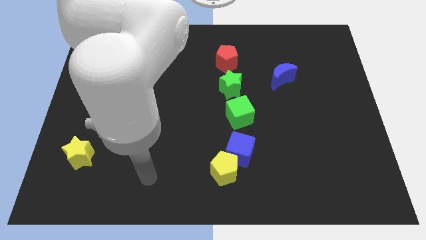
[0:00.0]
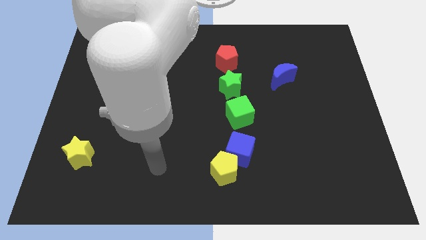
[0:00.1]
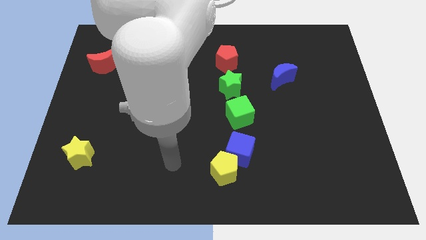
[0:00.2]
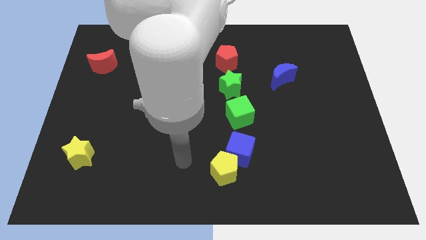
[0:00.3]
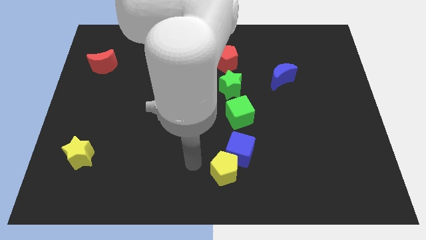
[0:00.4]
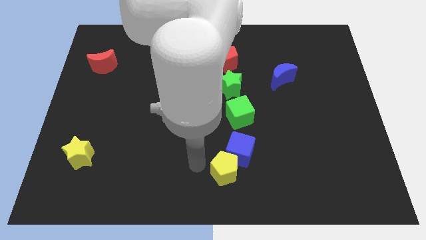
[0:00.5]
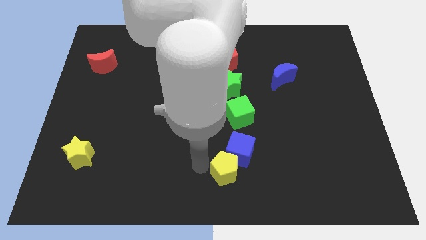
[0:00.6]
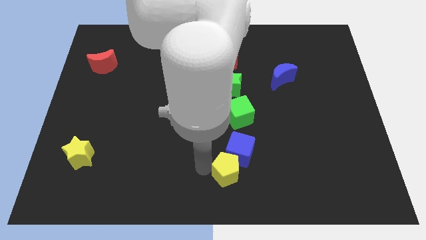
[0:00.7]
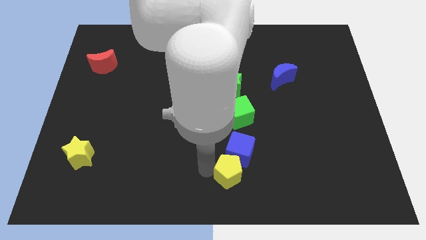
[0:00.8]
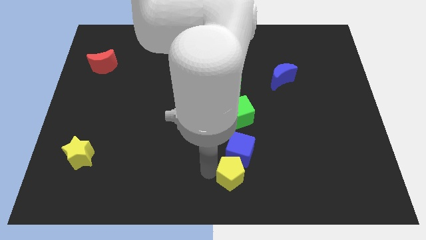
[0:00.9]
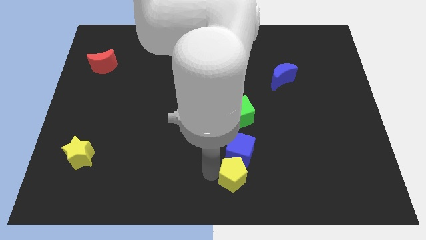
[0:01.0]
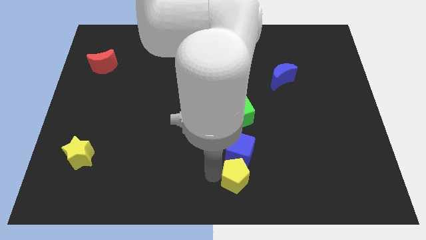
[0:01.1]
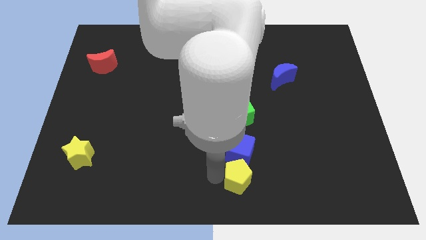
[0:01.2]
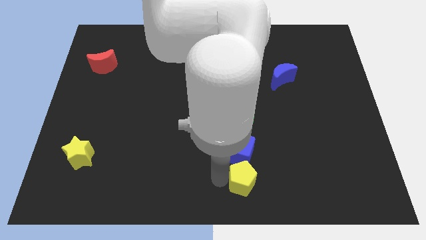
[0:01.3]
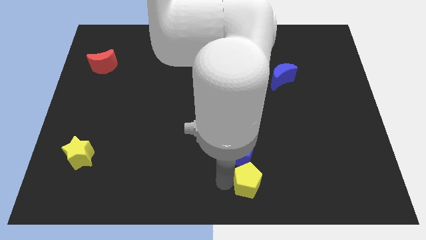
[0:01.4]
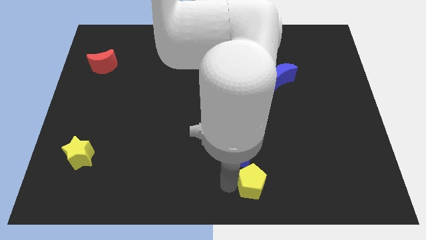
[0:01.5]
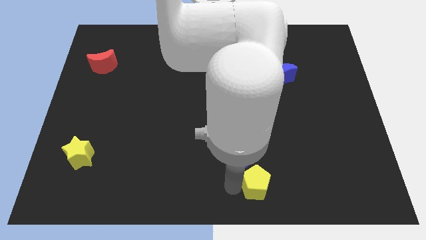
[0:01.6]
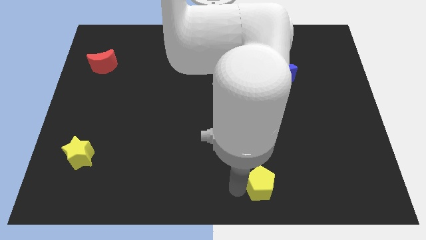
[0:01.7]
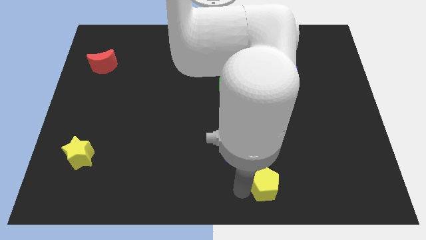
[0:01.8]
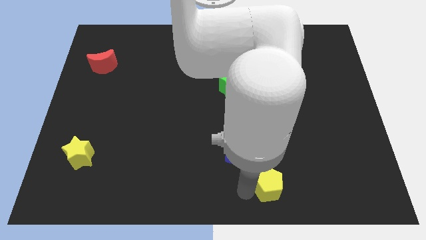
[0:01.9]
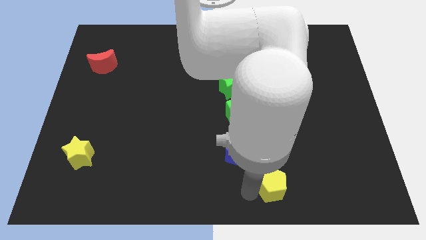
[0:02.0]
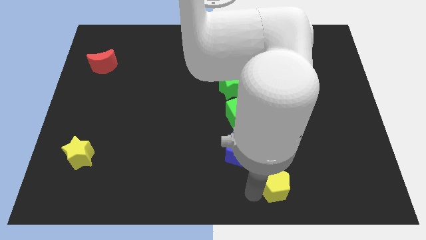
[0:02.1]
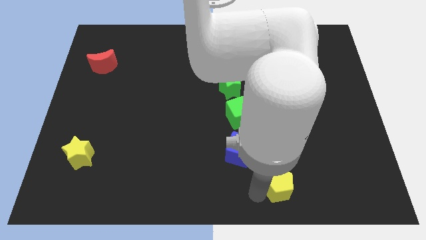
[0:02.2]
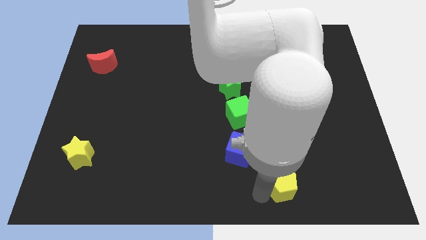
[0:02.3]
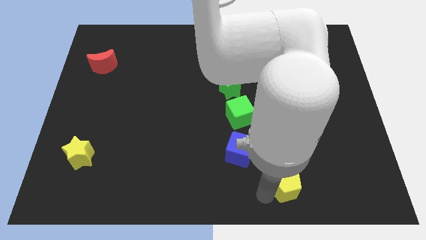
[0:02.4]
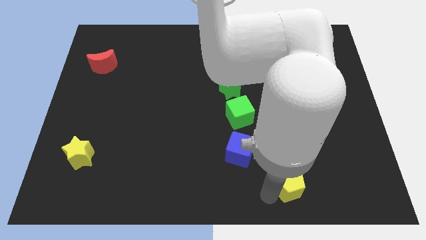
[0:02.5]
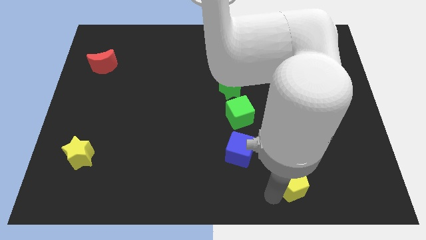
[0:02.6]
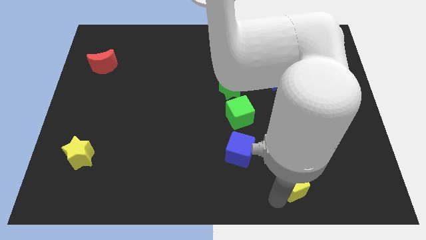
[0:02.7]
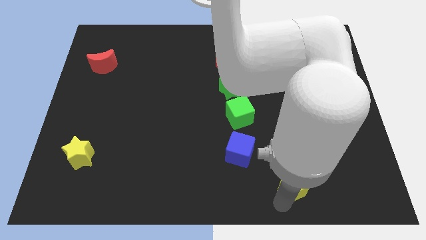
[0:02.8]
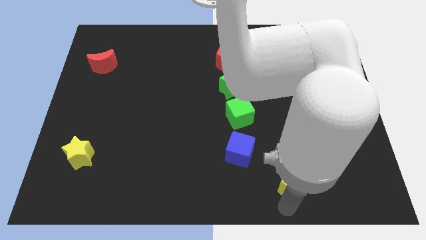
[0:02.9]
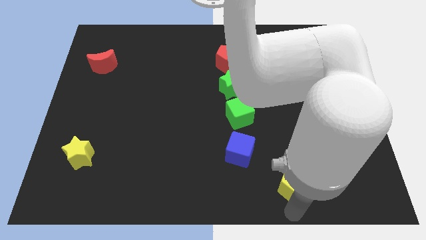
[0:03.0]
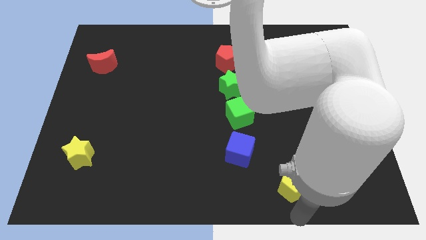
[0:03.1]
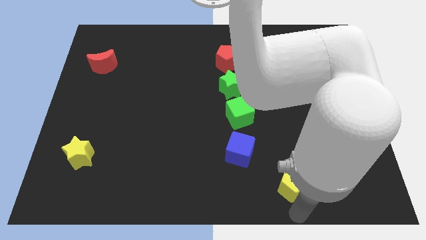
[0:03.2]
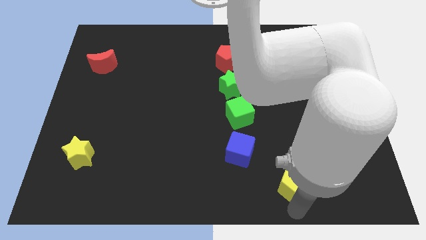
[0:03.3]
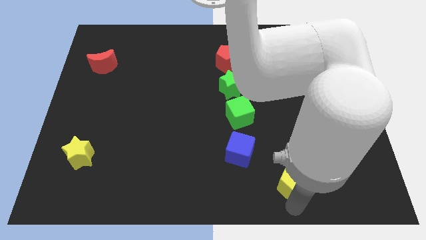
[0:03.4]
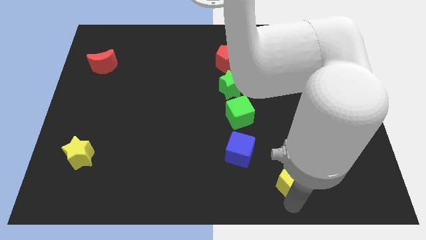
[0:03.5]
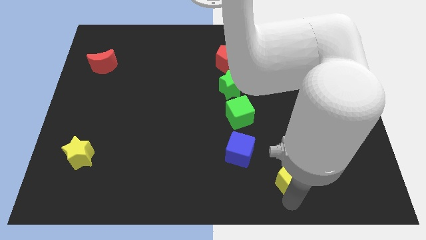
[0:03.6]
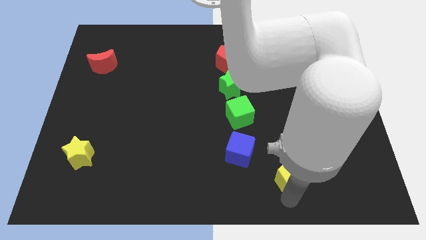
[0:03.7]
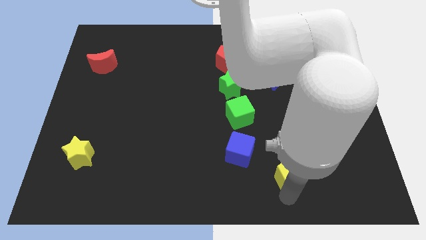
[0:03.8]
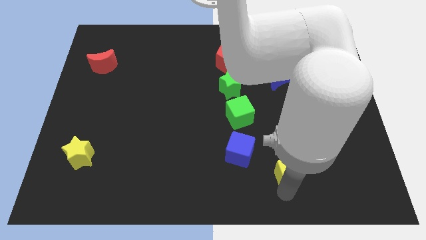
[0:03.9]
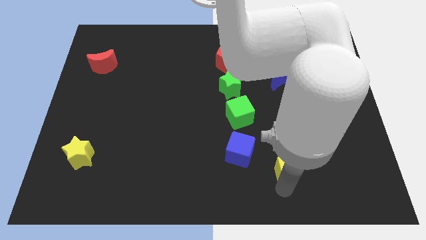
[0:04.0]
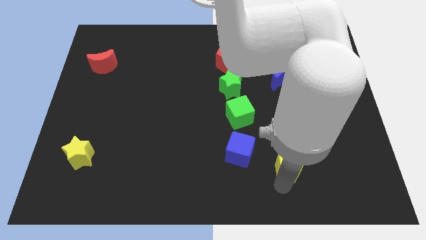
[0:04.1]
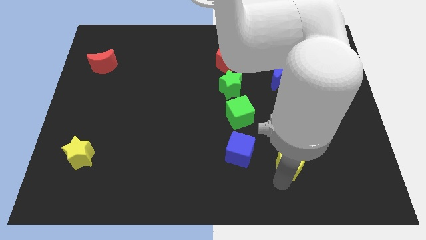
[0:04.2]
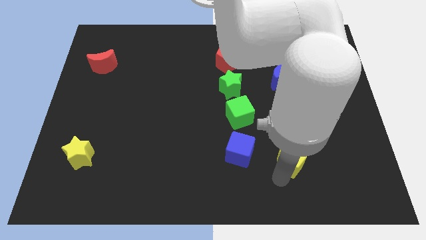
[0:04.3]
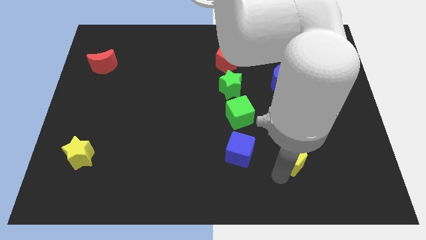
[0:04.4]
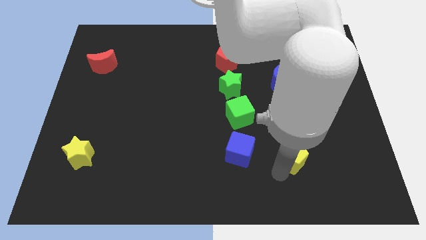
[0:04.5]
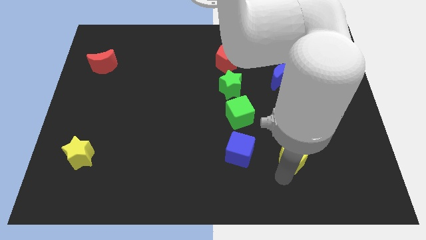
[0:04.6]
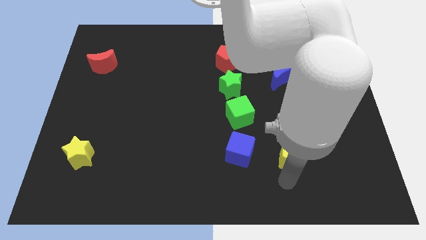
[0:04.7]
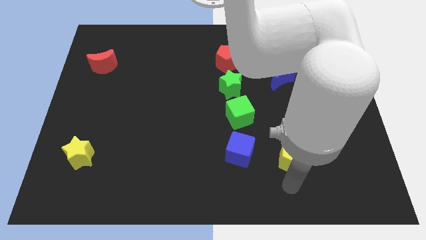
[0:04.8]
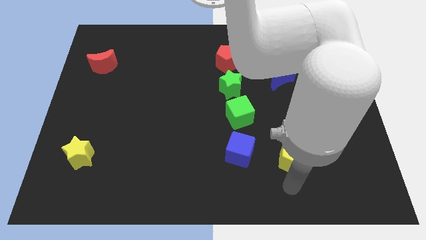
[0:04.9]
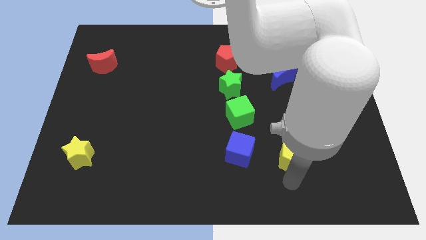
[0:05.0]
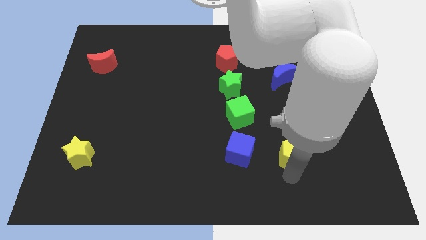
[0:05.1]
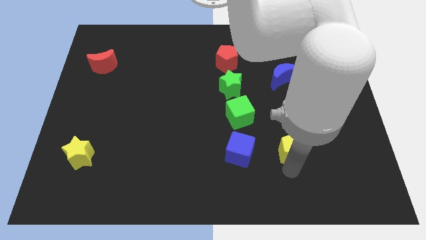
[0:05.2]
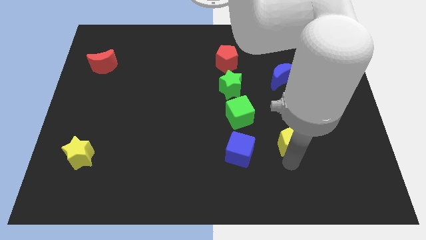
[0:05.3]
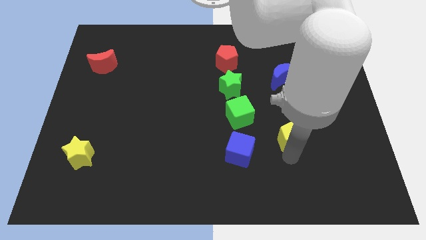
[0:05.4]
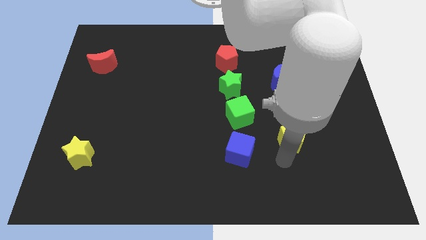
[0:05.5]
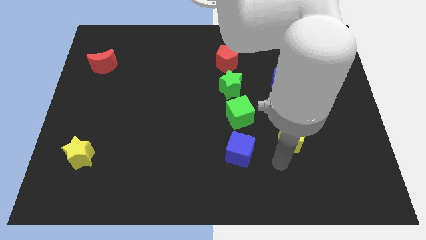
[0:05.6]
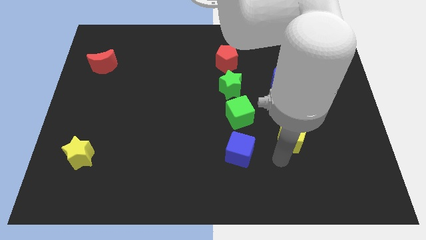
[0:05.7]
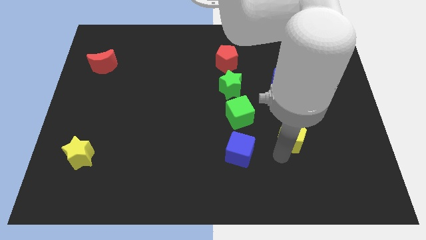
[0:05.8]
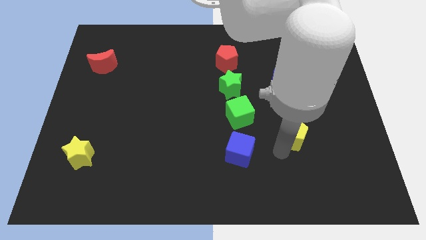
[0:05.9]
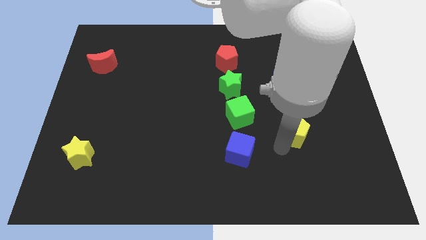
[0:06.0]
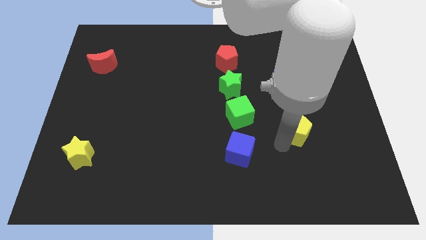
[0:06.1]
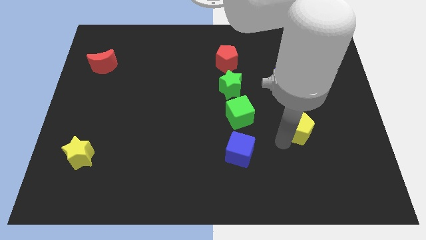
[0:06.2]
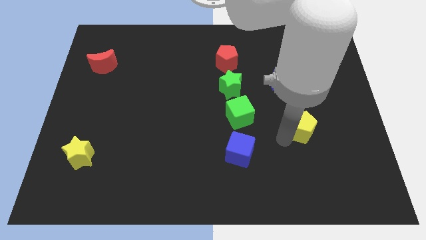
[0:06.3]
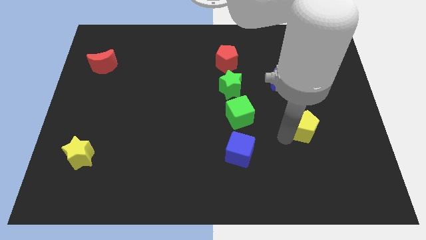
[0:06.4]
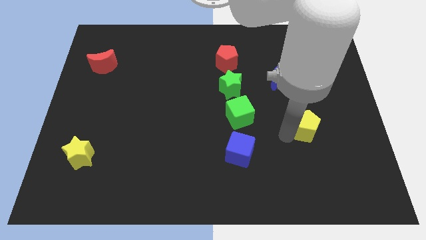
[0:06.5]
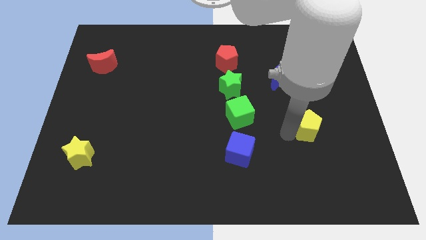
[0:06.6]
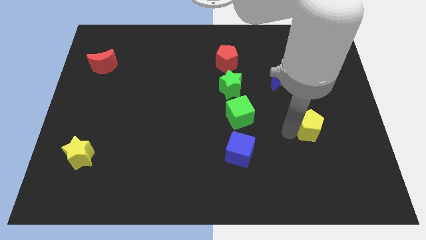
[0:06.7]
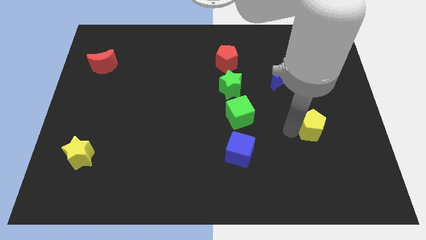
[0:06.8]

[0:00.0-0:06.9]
slide the yellow pentagon upwards and right

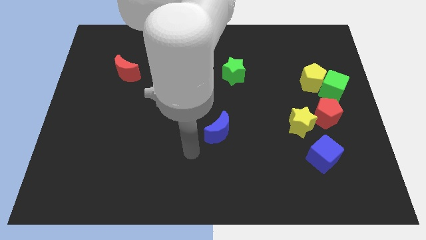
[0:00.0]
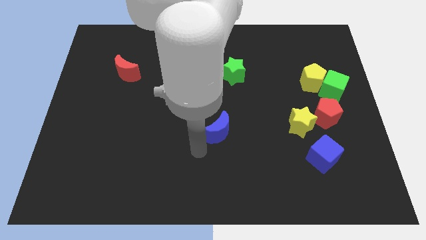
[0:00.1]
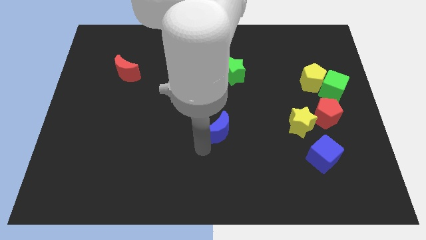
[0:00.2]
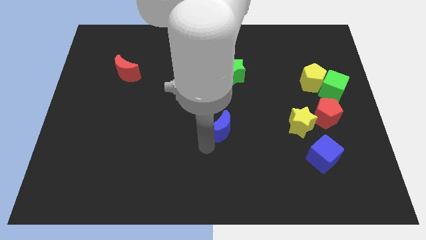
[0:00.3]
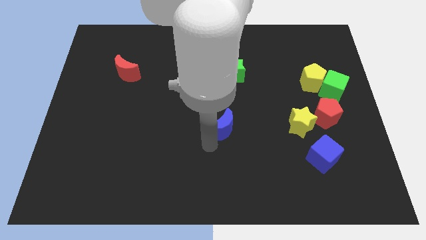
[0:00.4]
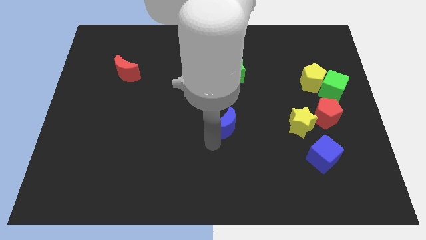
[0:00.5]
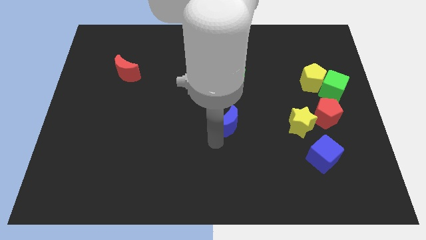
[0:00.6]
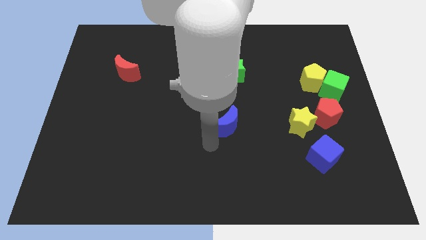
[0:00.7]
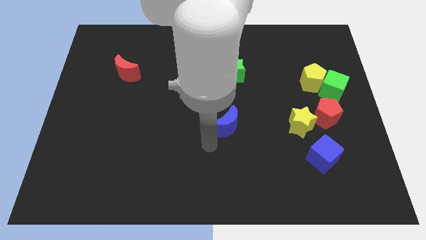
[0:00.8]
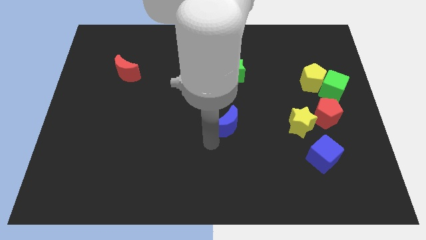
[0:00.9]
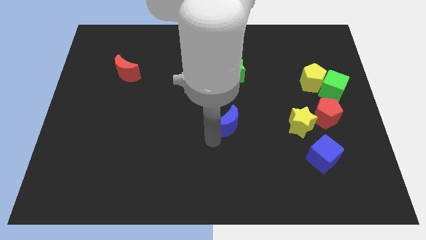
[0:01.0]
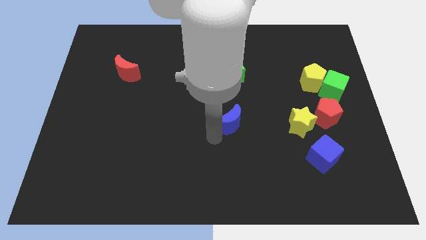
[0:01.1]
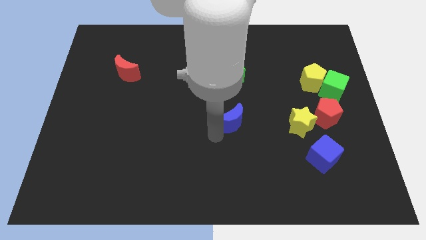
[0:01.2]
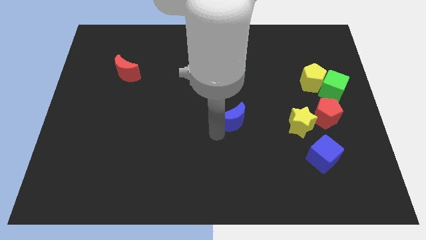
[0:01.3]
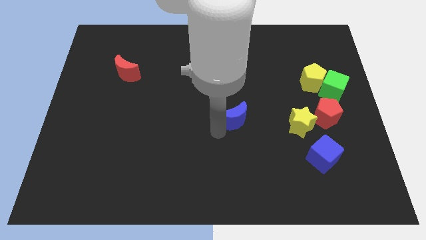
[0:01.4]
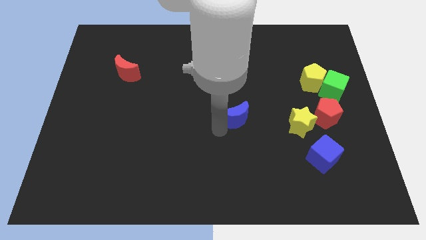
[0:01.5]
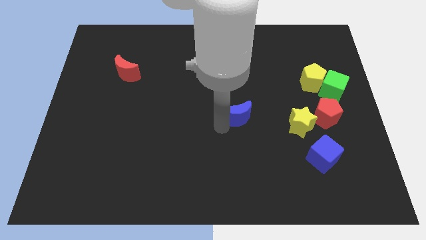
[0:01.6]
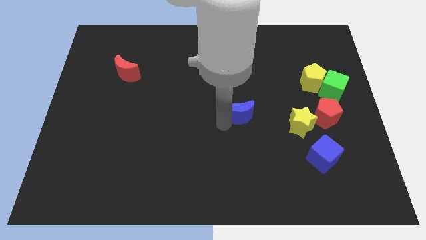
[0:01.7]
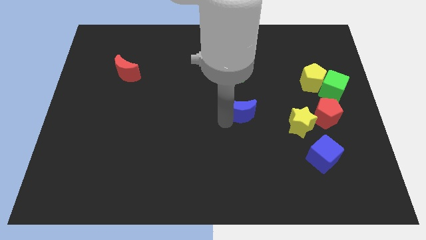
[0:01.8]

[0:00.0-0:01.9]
move the blue moon up and right a bit
